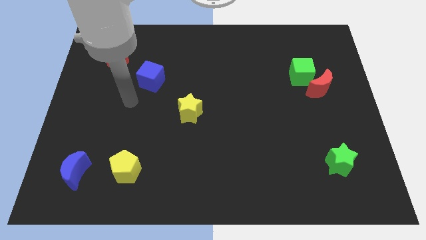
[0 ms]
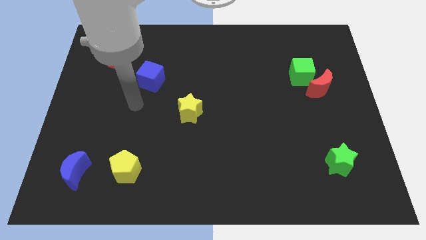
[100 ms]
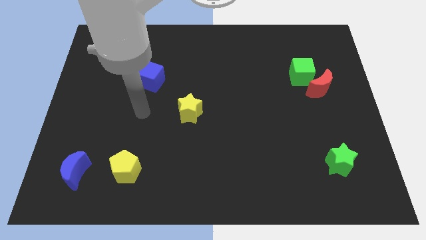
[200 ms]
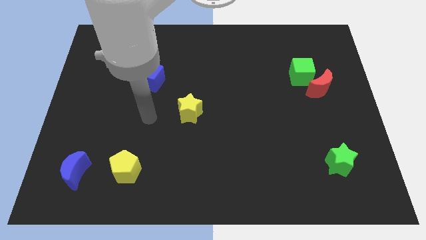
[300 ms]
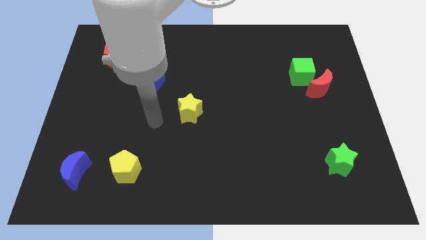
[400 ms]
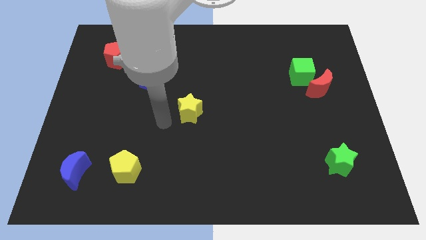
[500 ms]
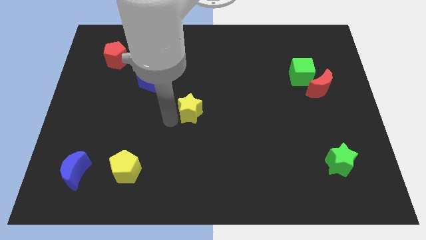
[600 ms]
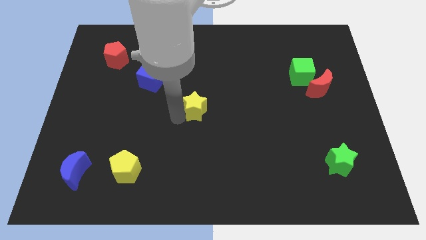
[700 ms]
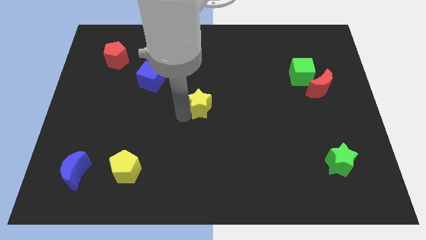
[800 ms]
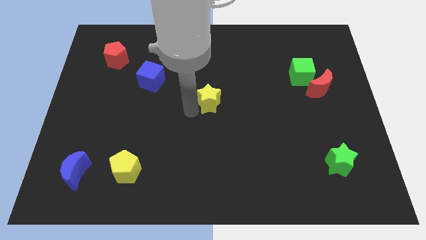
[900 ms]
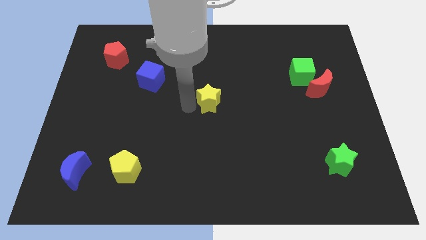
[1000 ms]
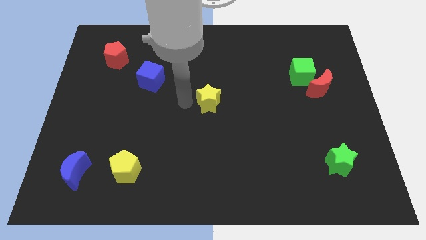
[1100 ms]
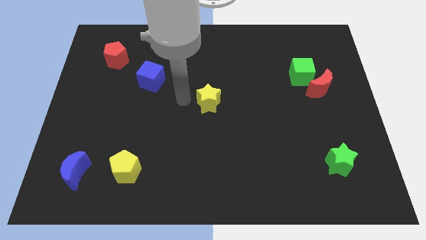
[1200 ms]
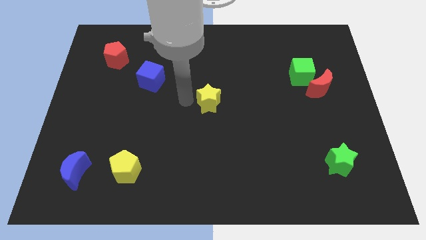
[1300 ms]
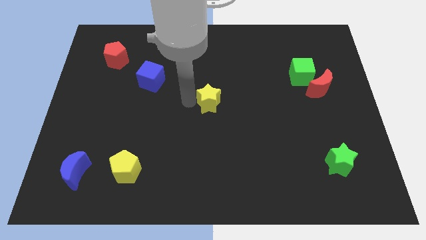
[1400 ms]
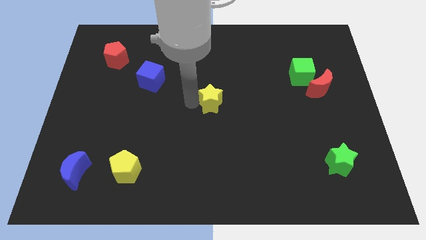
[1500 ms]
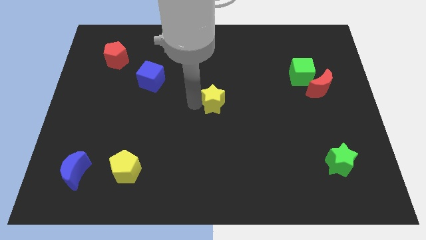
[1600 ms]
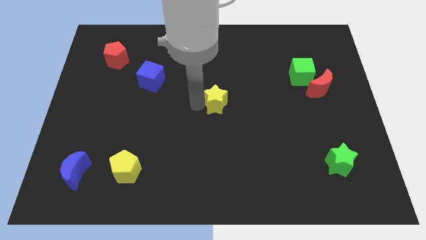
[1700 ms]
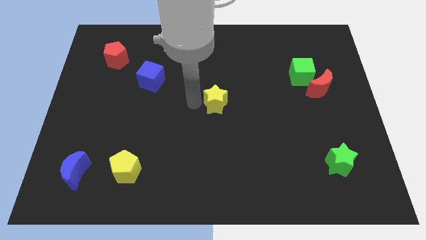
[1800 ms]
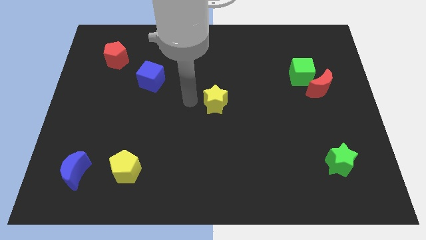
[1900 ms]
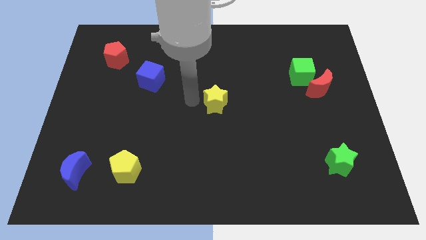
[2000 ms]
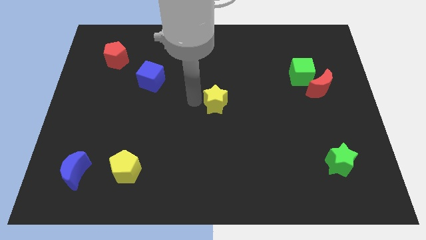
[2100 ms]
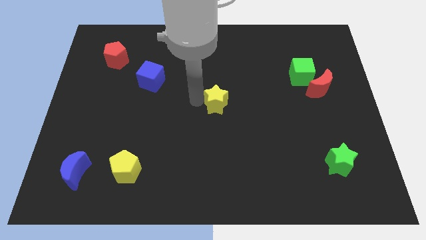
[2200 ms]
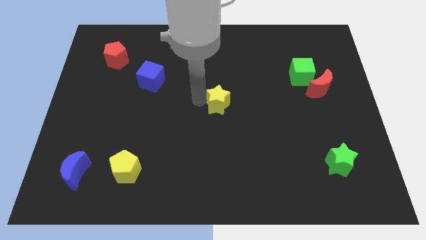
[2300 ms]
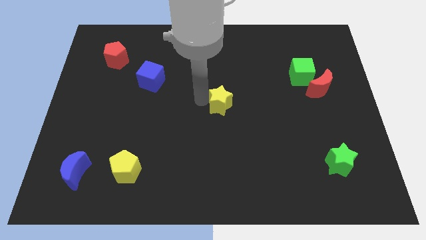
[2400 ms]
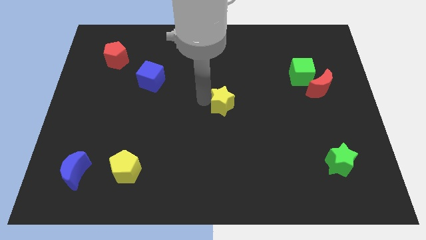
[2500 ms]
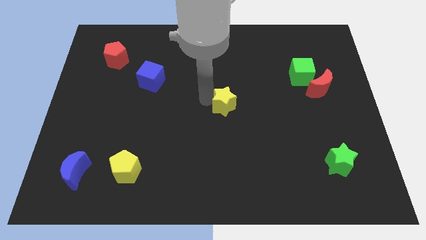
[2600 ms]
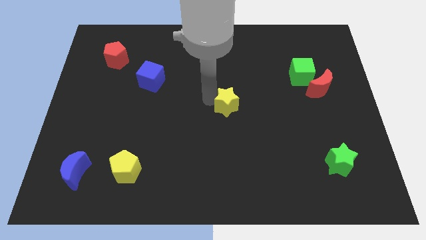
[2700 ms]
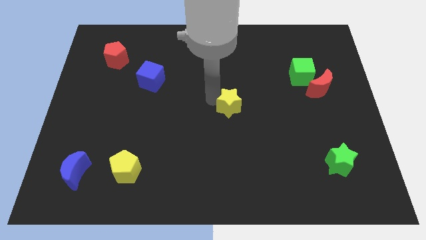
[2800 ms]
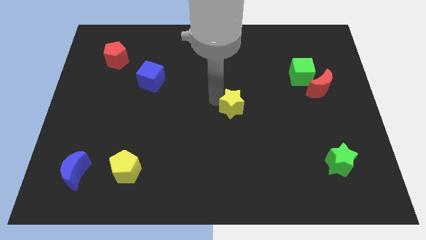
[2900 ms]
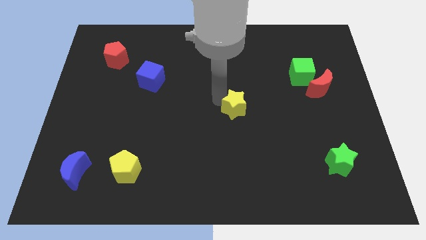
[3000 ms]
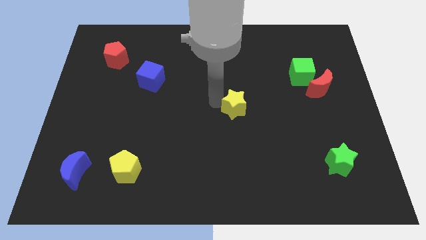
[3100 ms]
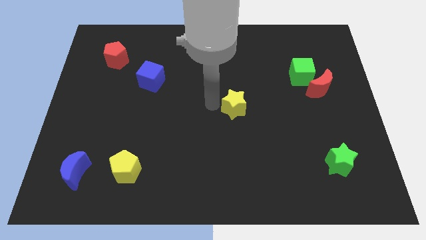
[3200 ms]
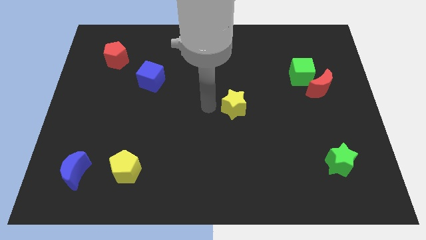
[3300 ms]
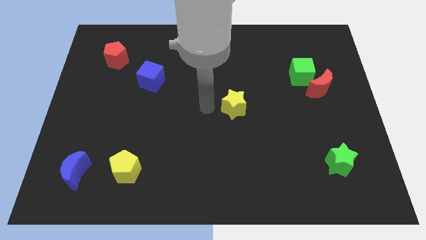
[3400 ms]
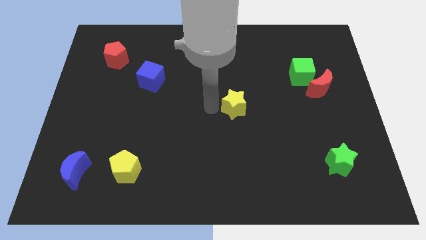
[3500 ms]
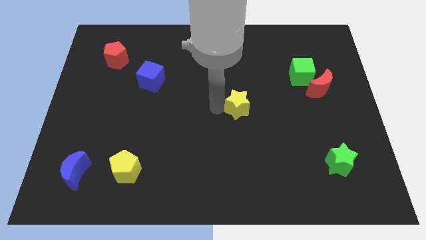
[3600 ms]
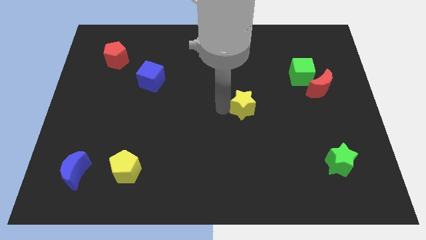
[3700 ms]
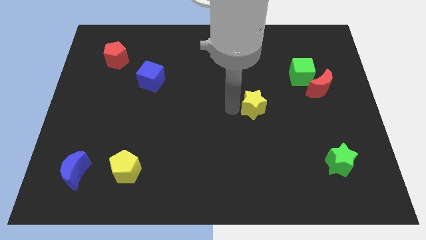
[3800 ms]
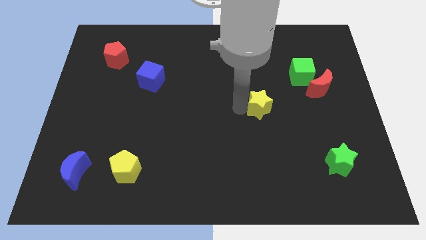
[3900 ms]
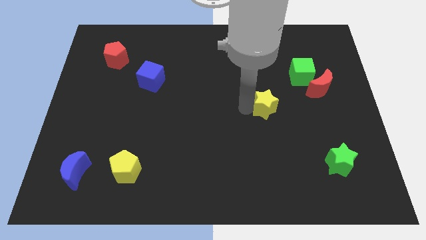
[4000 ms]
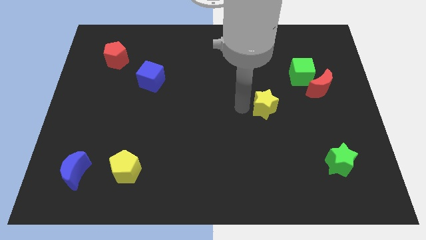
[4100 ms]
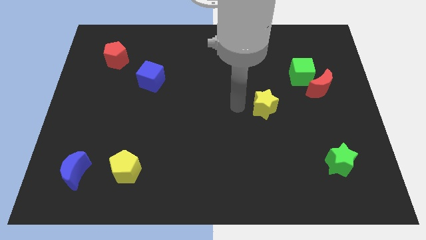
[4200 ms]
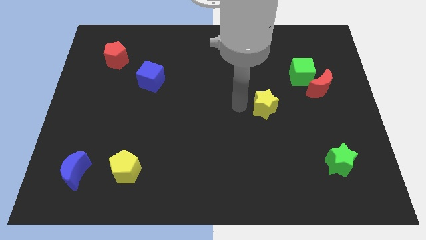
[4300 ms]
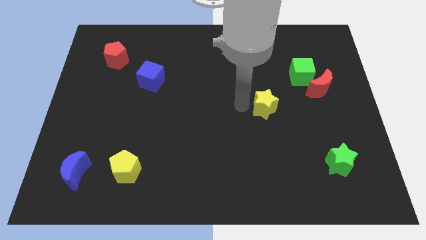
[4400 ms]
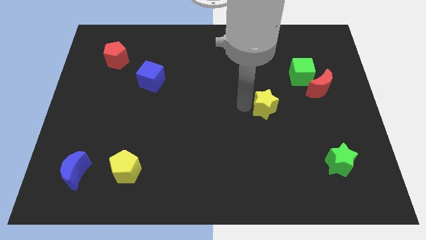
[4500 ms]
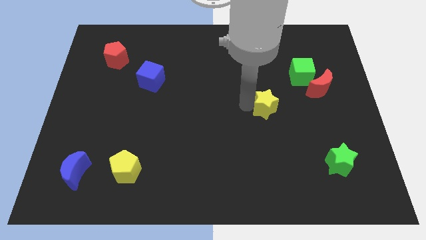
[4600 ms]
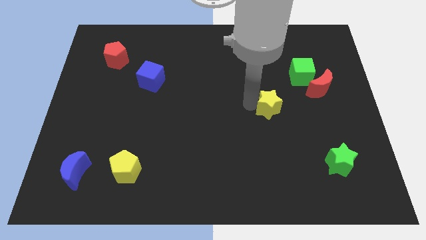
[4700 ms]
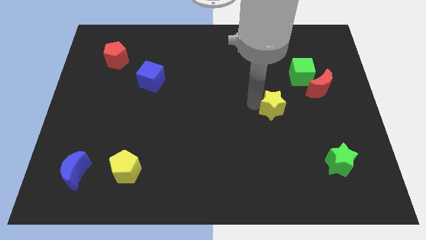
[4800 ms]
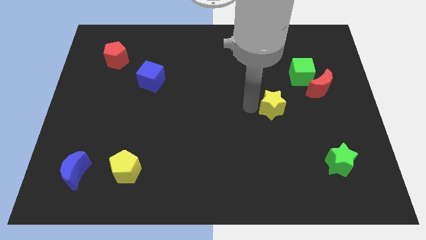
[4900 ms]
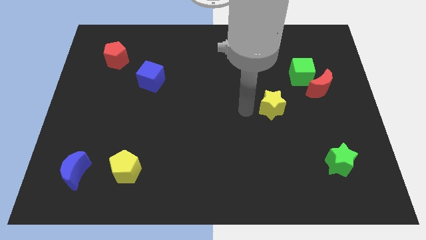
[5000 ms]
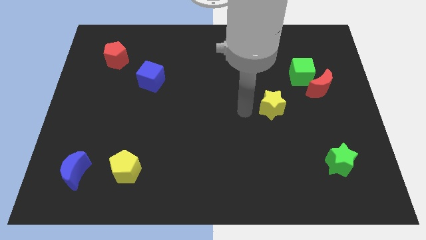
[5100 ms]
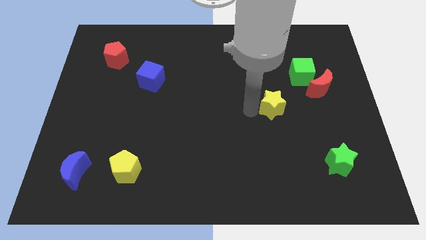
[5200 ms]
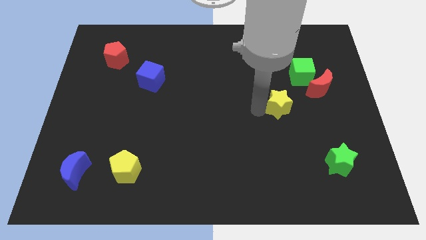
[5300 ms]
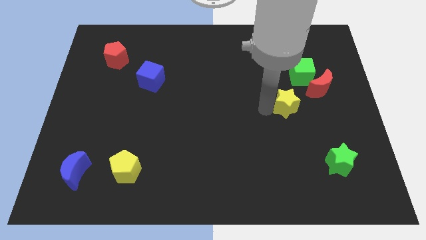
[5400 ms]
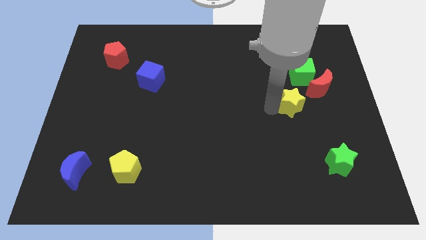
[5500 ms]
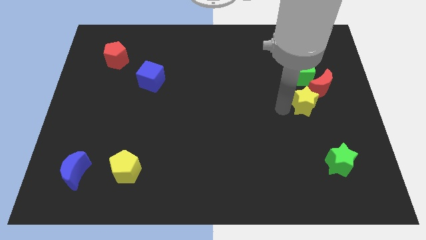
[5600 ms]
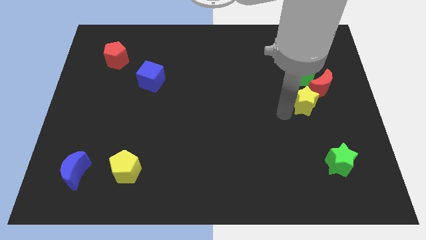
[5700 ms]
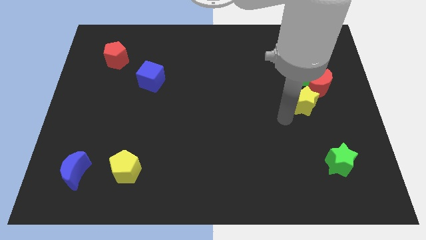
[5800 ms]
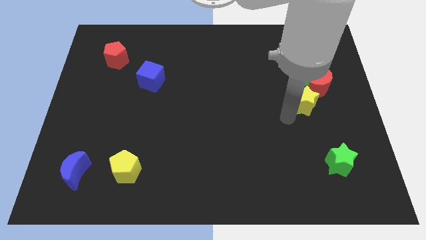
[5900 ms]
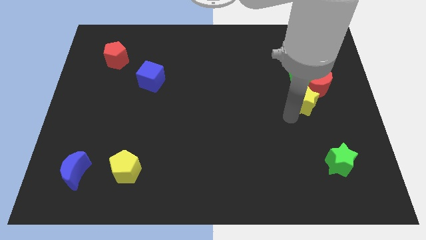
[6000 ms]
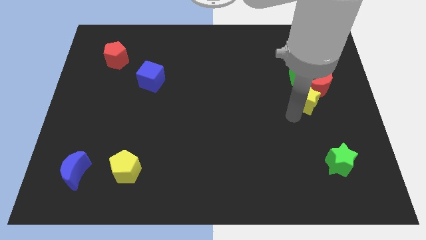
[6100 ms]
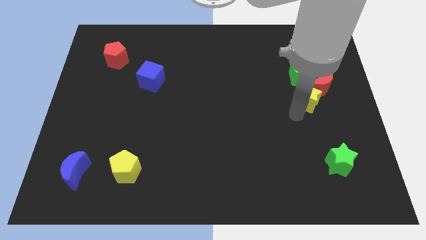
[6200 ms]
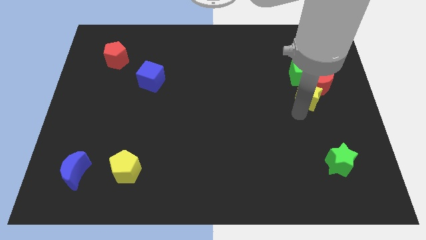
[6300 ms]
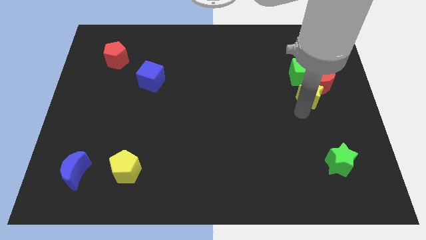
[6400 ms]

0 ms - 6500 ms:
push the yellow star diagonally down and to the right of the green cube

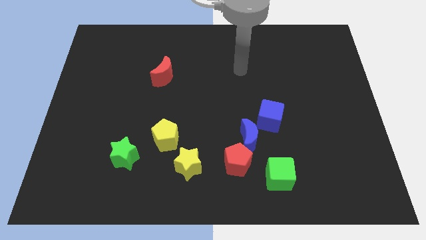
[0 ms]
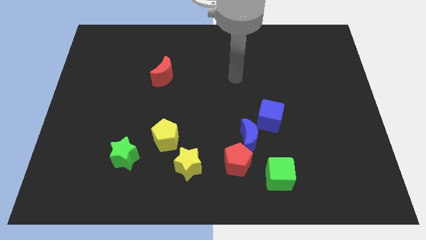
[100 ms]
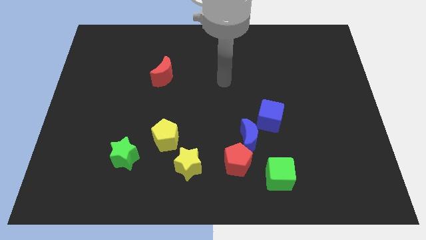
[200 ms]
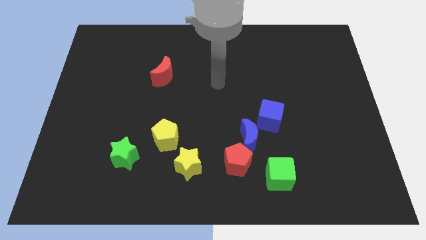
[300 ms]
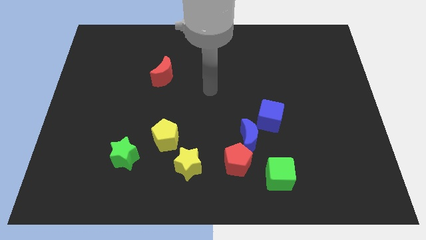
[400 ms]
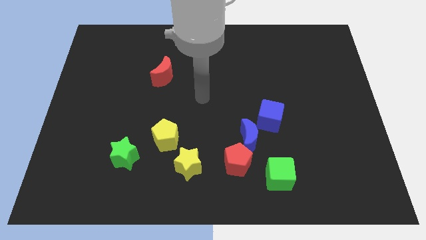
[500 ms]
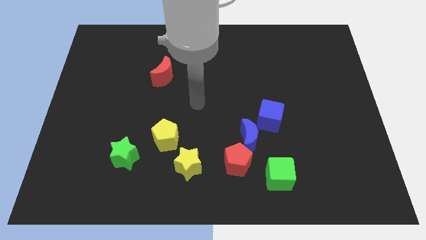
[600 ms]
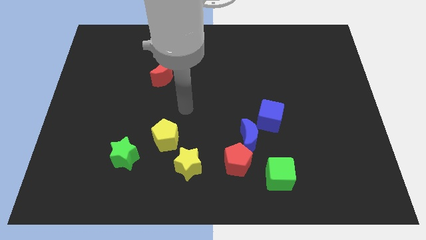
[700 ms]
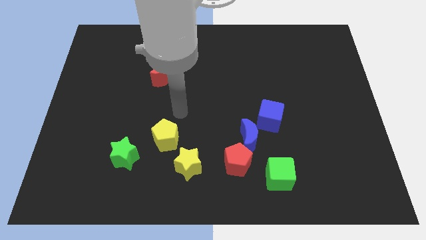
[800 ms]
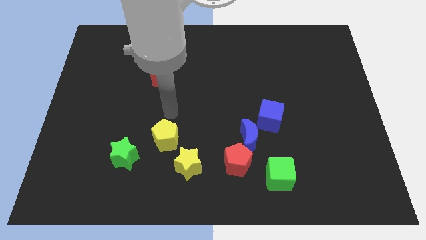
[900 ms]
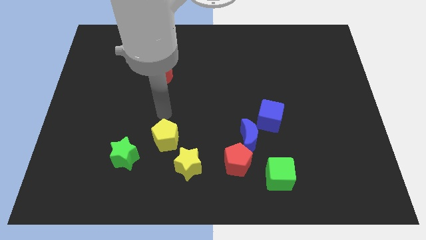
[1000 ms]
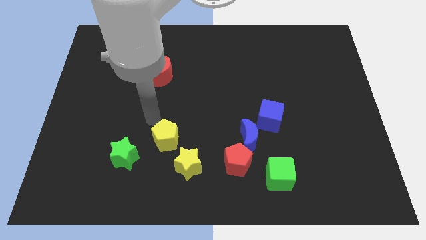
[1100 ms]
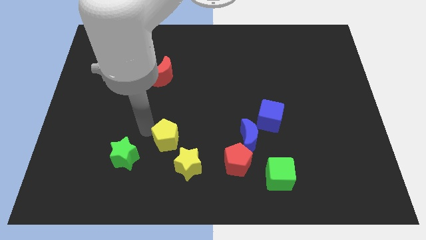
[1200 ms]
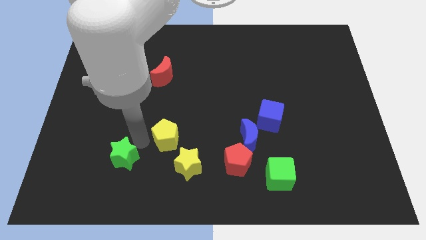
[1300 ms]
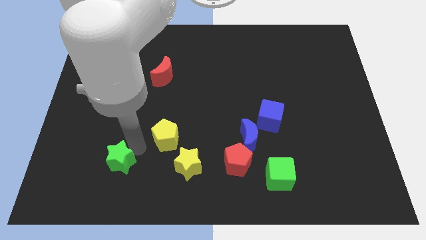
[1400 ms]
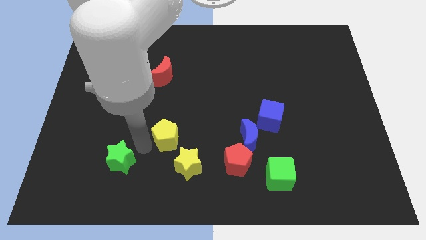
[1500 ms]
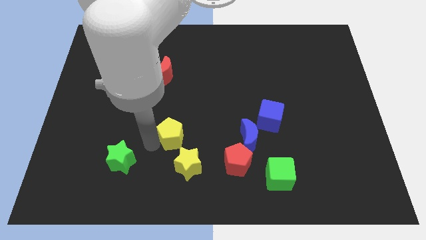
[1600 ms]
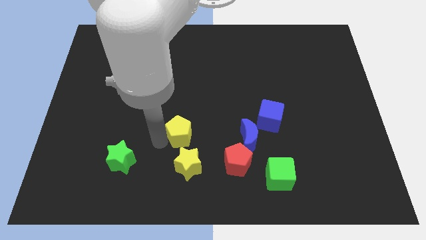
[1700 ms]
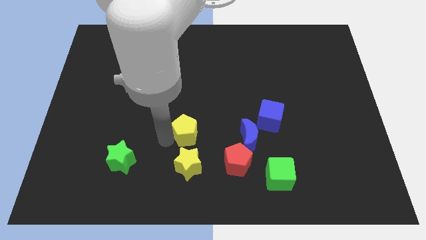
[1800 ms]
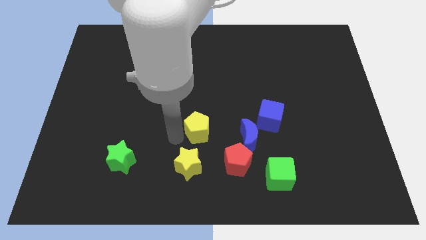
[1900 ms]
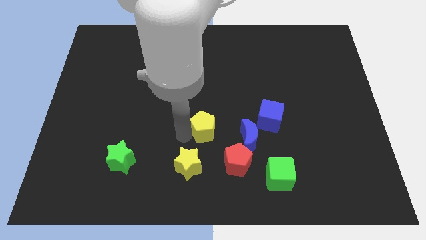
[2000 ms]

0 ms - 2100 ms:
push the yellow pentagon left of the blue cube
